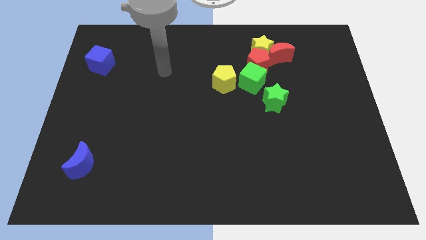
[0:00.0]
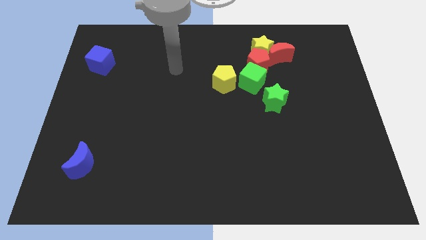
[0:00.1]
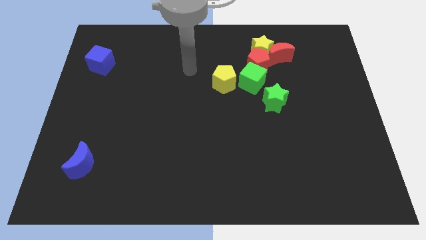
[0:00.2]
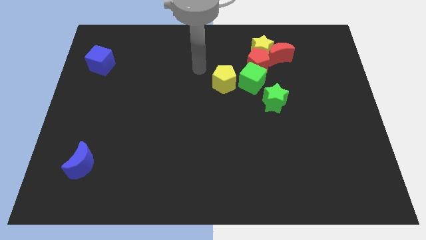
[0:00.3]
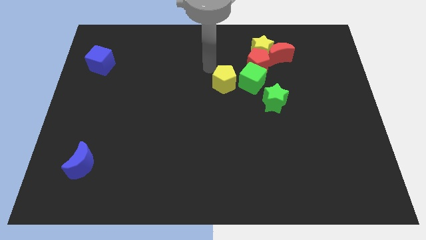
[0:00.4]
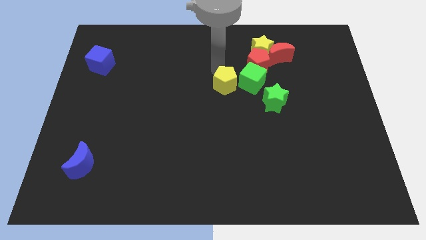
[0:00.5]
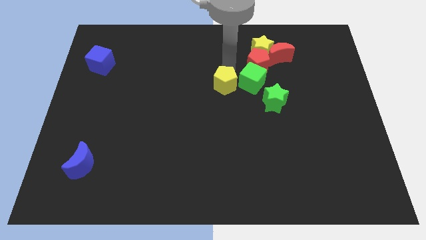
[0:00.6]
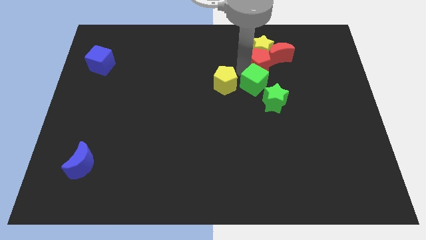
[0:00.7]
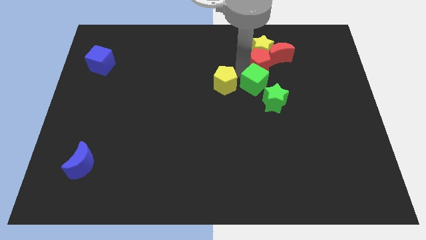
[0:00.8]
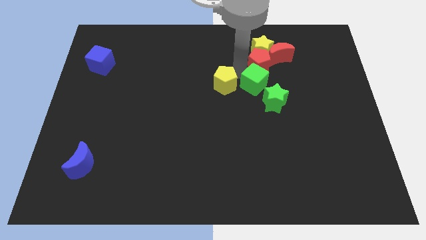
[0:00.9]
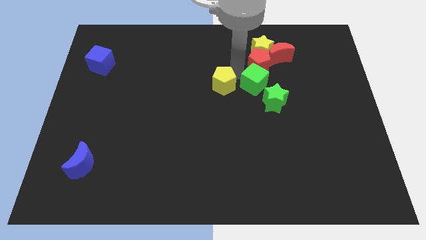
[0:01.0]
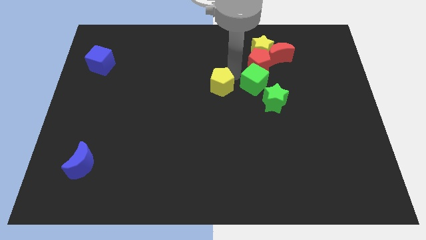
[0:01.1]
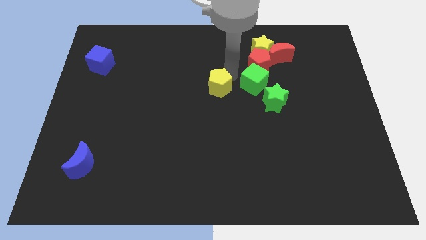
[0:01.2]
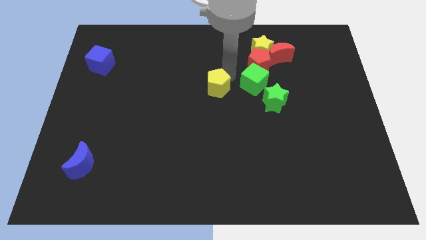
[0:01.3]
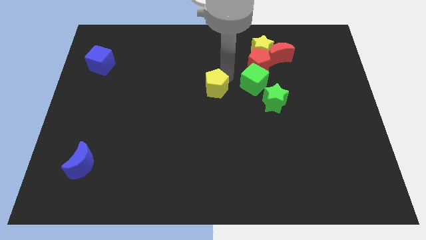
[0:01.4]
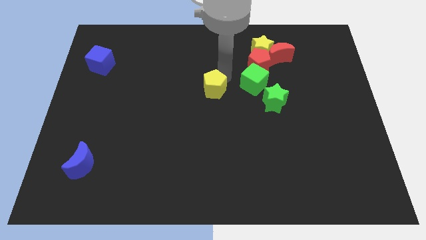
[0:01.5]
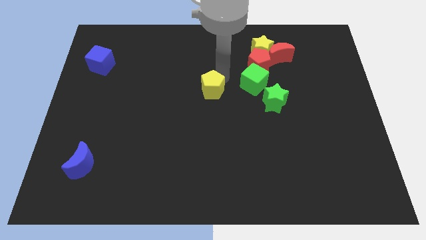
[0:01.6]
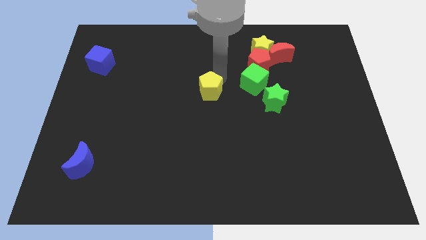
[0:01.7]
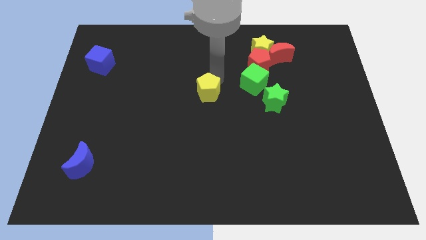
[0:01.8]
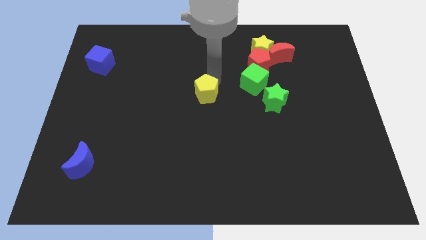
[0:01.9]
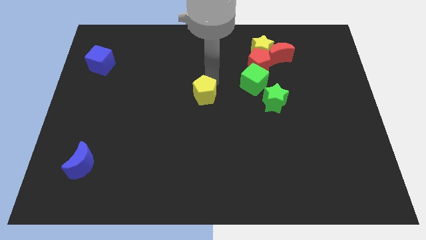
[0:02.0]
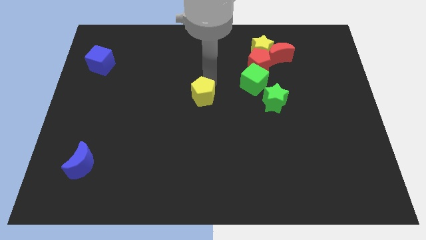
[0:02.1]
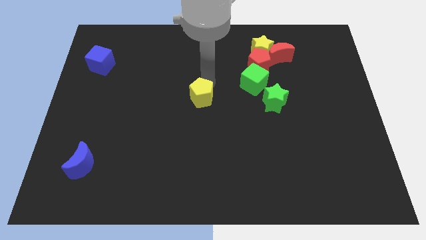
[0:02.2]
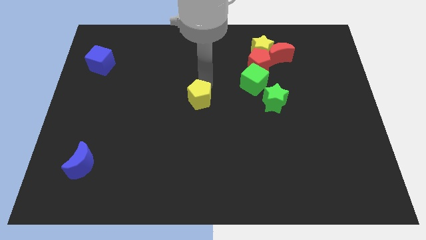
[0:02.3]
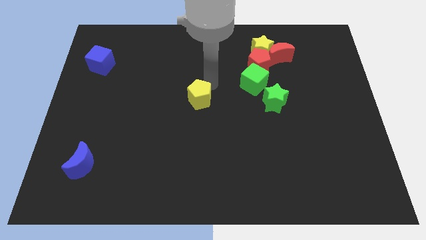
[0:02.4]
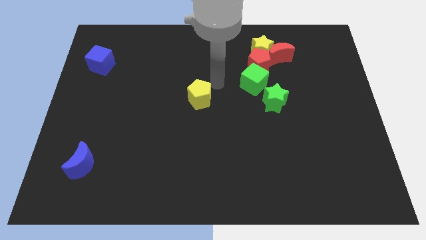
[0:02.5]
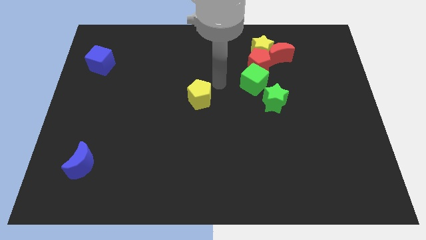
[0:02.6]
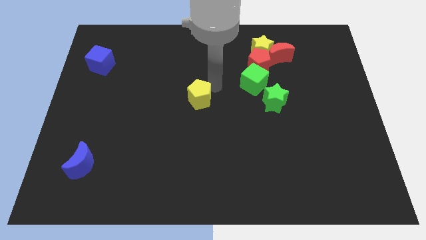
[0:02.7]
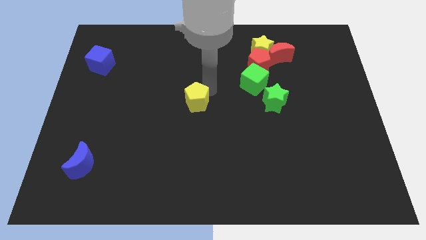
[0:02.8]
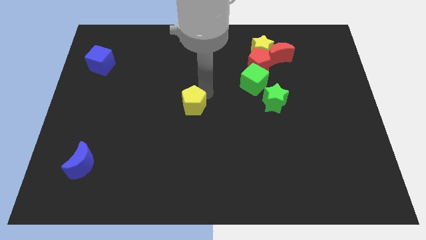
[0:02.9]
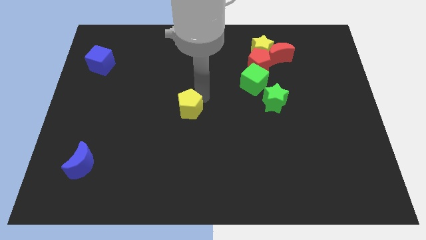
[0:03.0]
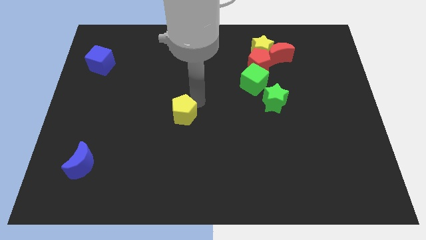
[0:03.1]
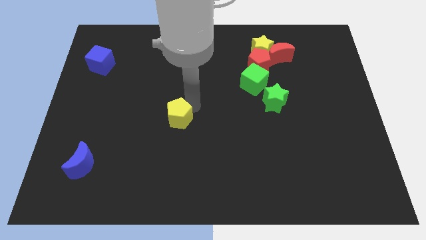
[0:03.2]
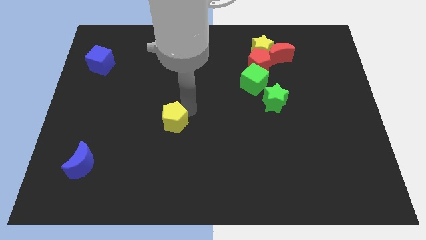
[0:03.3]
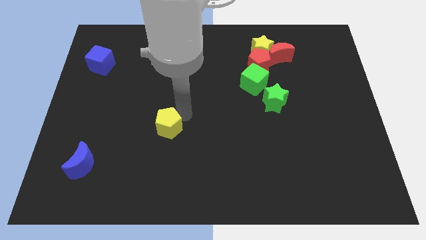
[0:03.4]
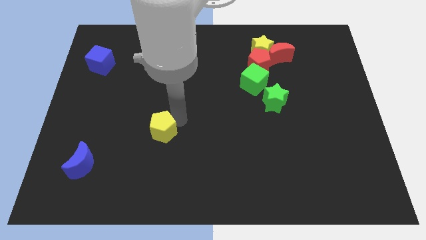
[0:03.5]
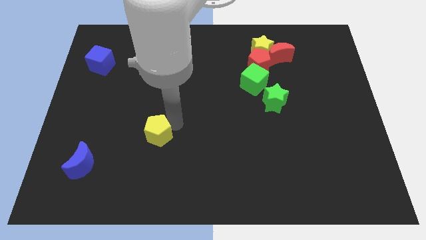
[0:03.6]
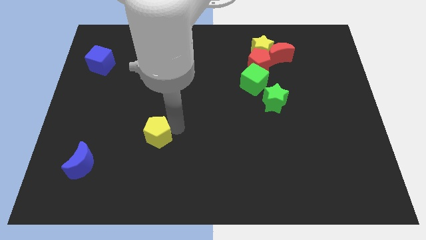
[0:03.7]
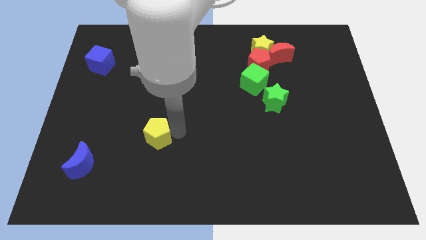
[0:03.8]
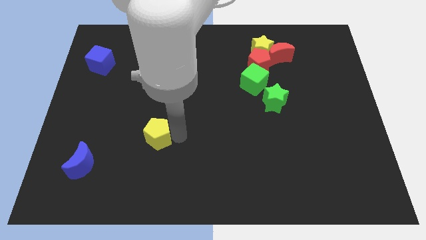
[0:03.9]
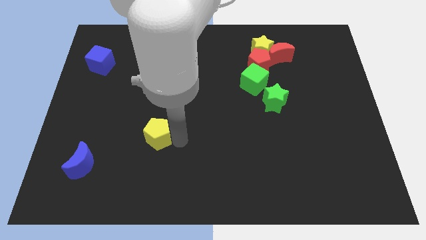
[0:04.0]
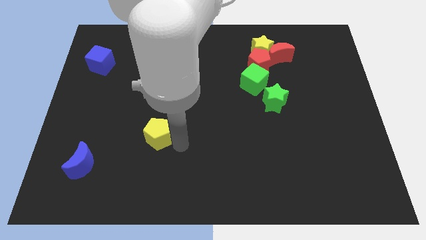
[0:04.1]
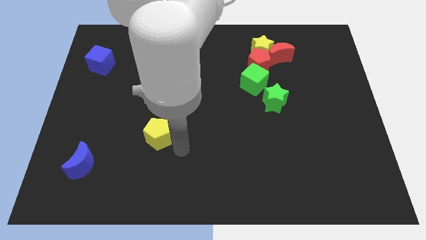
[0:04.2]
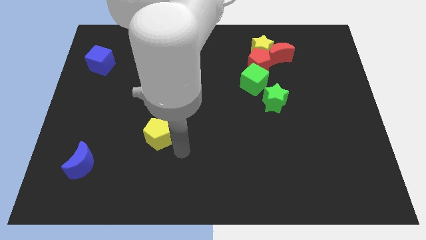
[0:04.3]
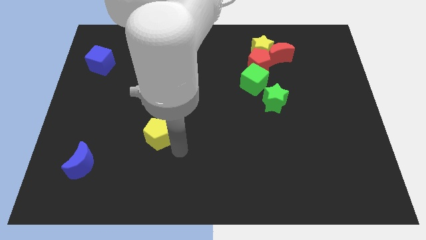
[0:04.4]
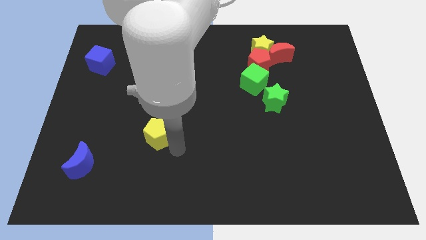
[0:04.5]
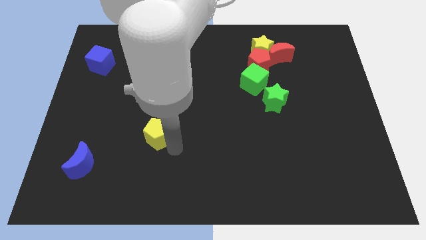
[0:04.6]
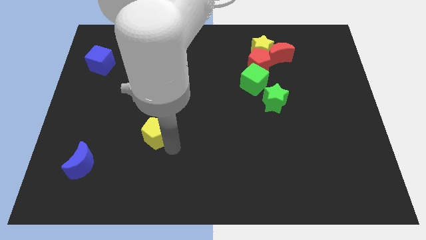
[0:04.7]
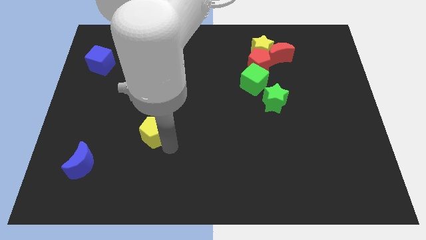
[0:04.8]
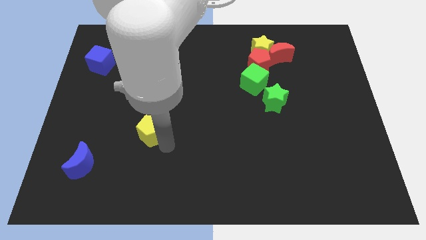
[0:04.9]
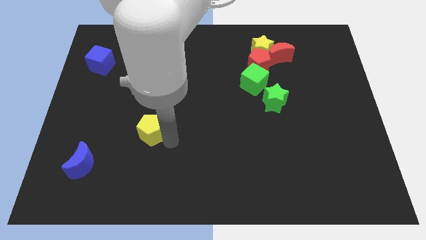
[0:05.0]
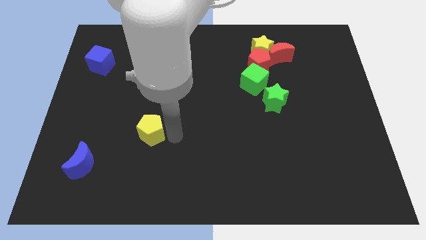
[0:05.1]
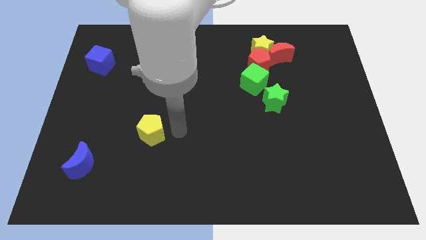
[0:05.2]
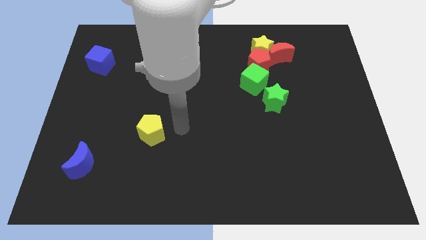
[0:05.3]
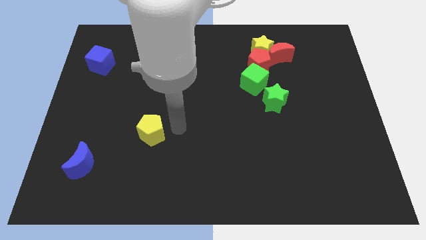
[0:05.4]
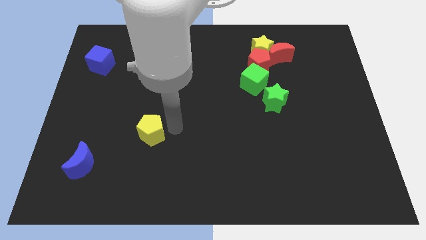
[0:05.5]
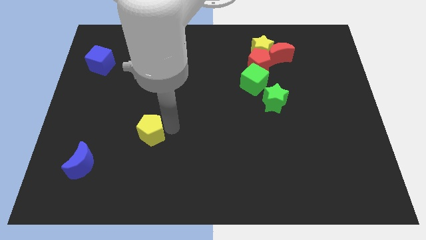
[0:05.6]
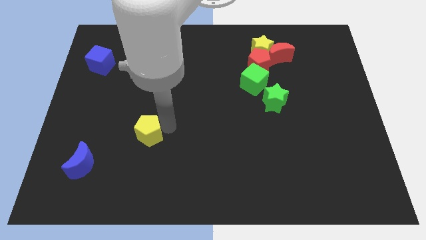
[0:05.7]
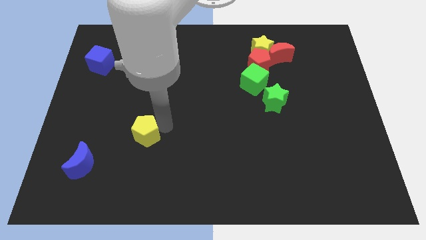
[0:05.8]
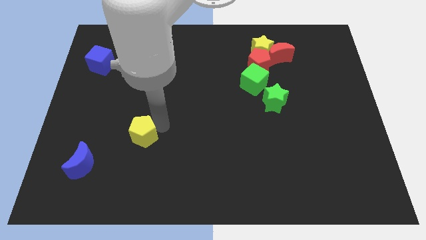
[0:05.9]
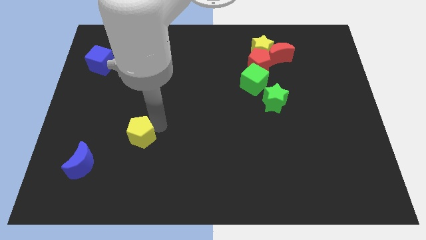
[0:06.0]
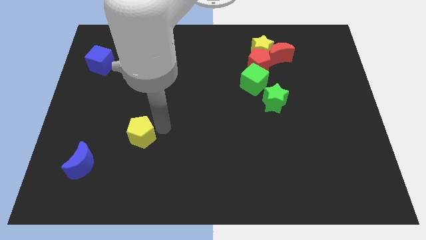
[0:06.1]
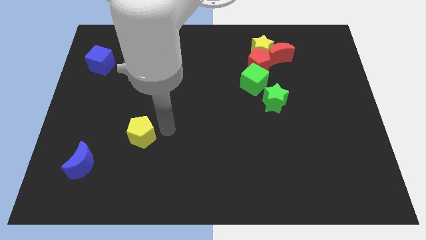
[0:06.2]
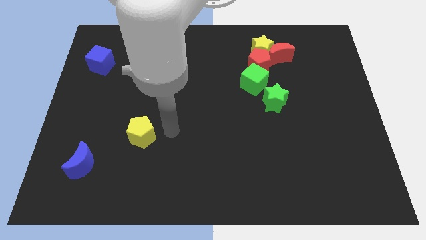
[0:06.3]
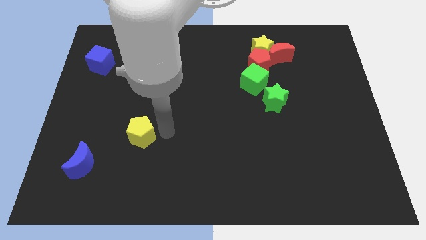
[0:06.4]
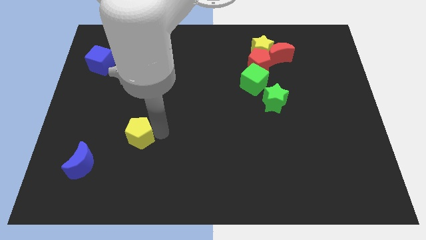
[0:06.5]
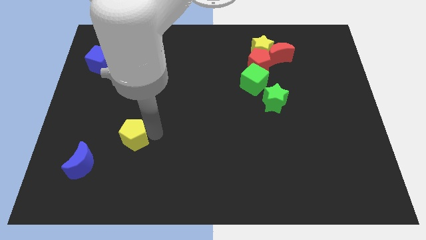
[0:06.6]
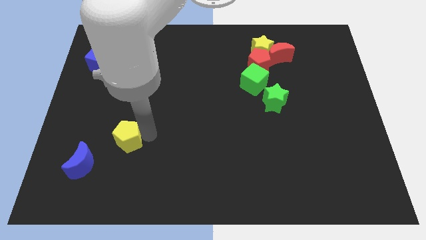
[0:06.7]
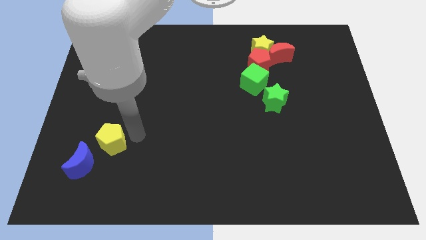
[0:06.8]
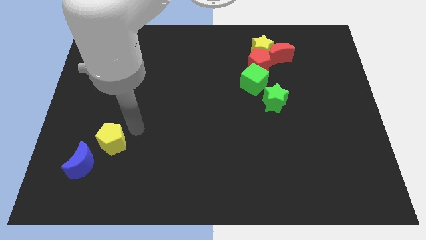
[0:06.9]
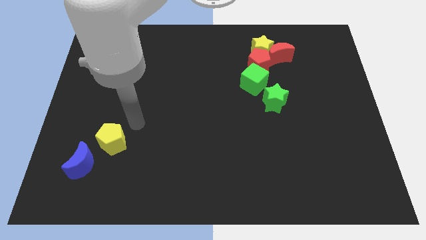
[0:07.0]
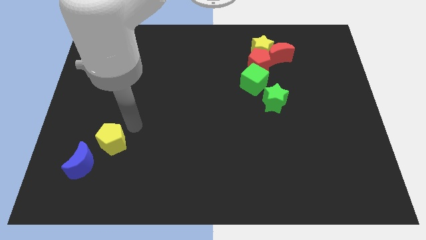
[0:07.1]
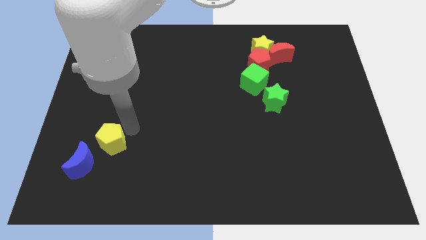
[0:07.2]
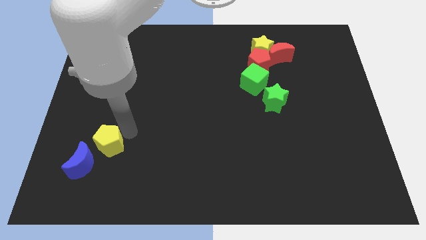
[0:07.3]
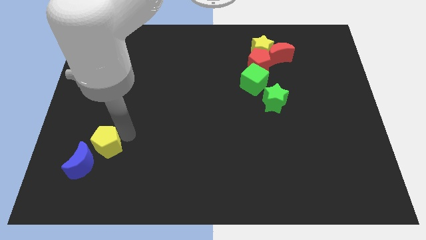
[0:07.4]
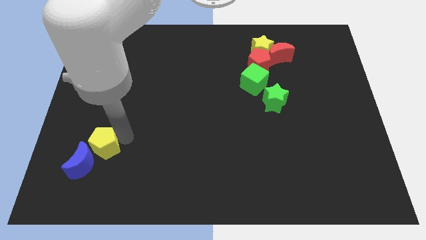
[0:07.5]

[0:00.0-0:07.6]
move the yellow pentagon to the blue moon
